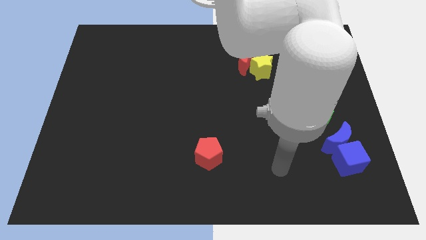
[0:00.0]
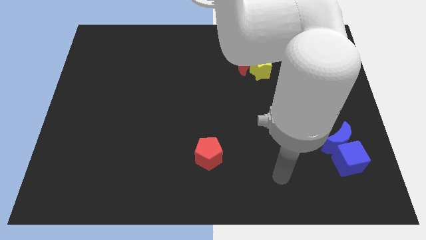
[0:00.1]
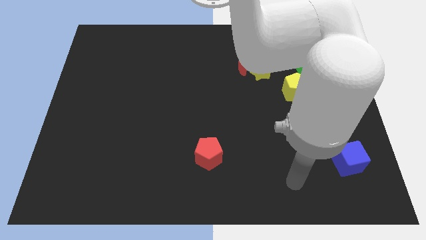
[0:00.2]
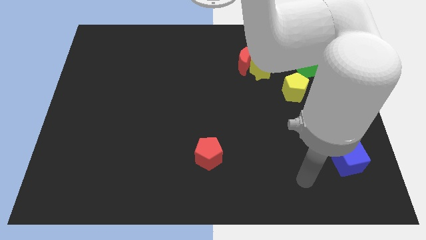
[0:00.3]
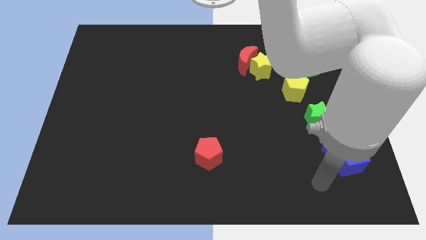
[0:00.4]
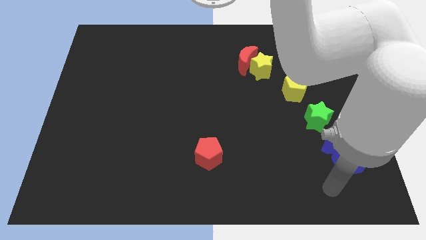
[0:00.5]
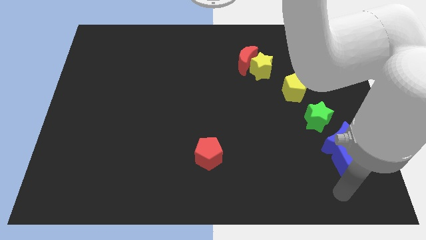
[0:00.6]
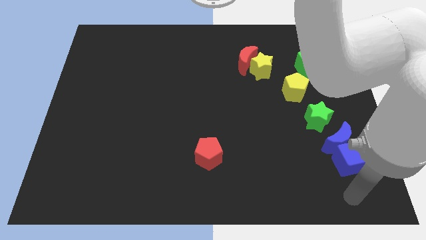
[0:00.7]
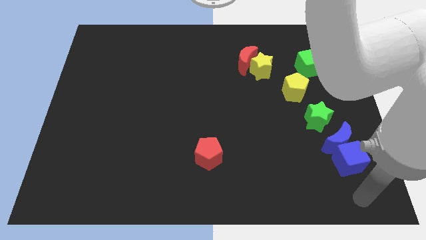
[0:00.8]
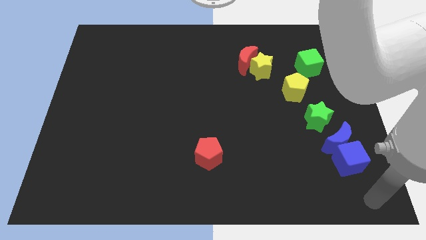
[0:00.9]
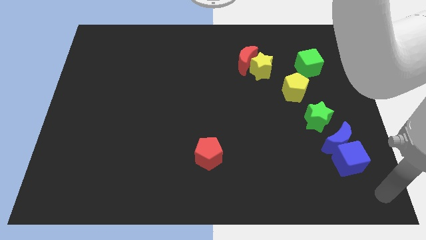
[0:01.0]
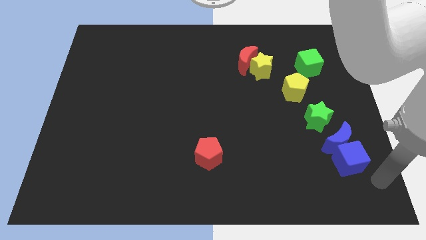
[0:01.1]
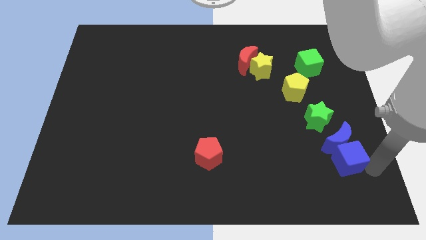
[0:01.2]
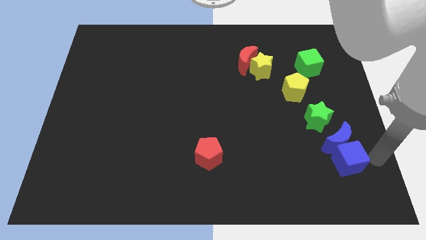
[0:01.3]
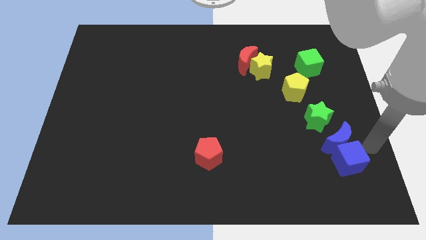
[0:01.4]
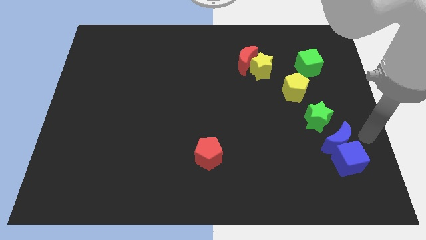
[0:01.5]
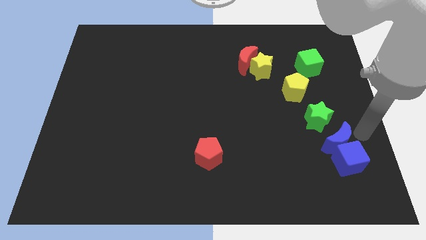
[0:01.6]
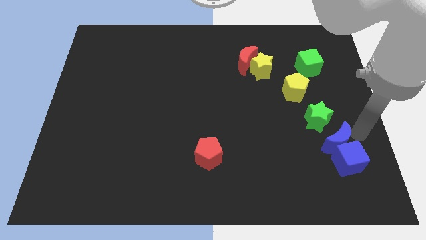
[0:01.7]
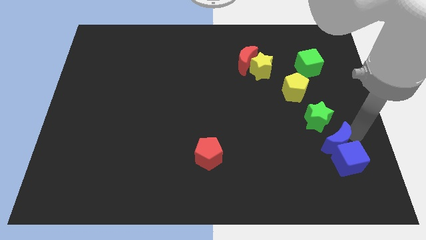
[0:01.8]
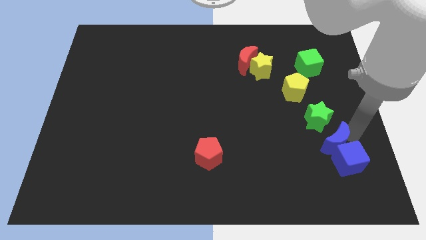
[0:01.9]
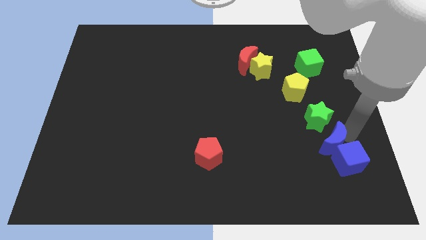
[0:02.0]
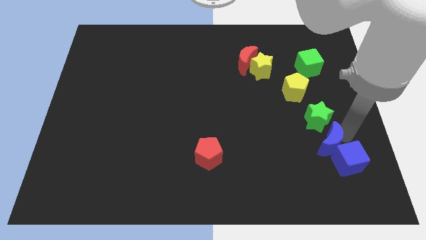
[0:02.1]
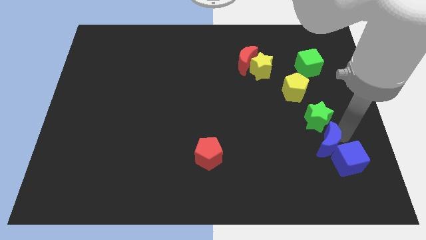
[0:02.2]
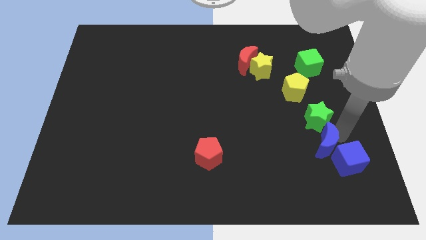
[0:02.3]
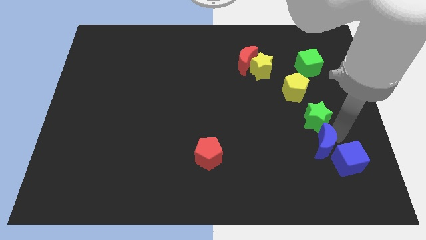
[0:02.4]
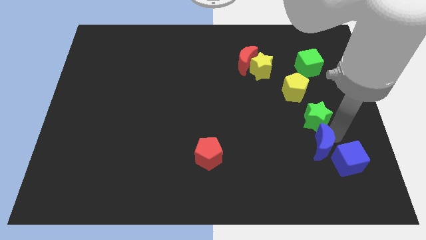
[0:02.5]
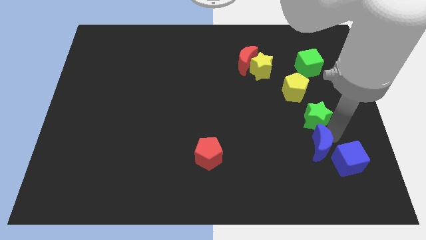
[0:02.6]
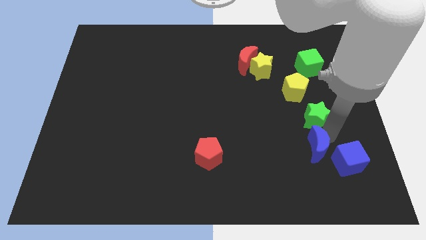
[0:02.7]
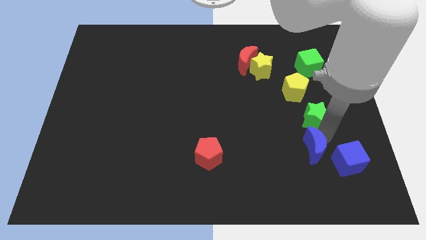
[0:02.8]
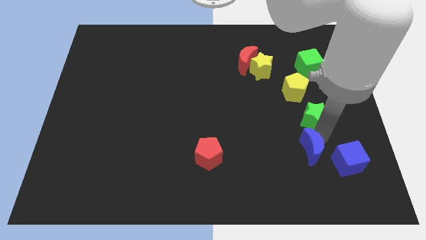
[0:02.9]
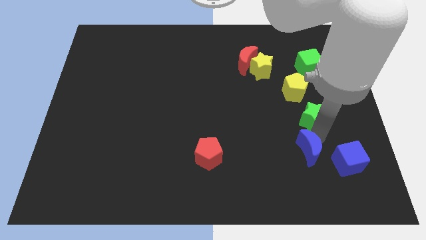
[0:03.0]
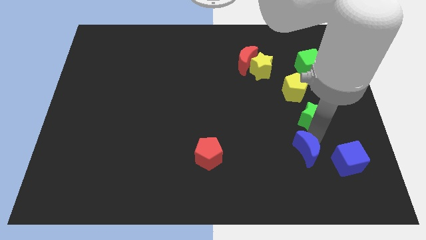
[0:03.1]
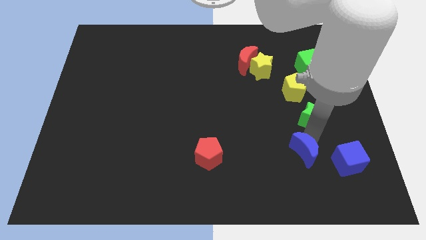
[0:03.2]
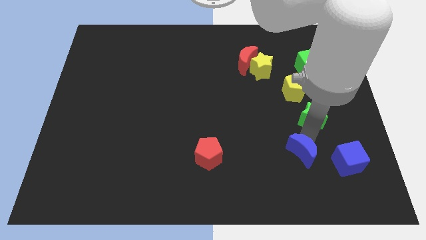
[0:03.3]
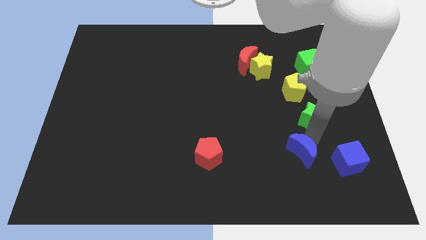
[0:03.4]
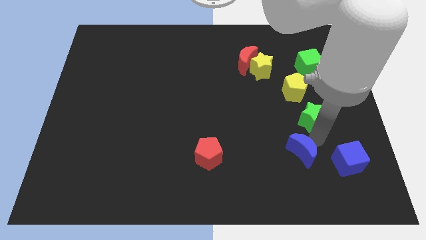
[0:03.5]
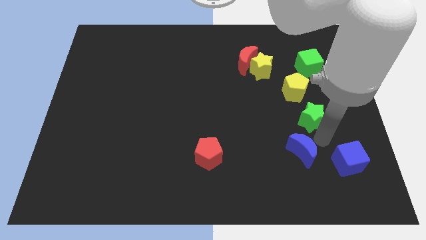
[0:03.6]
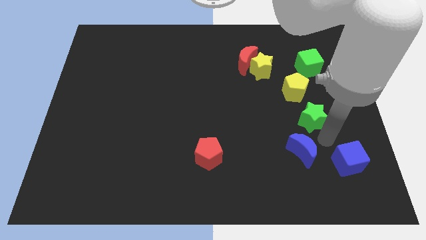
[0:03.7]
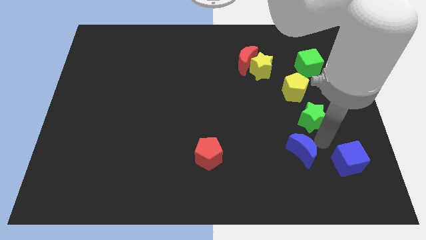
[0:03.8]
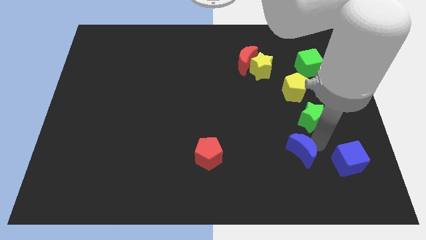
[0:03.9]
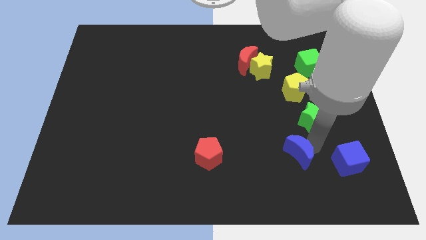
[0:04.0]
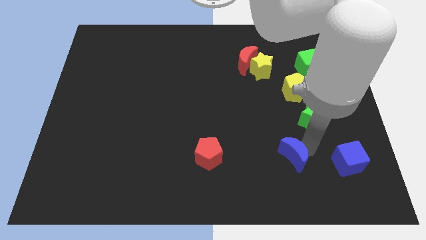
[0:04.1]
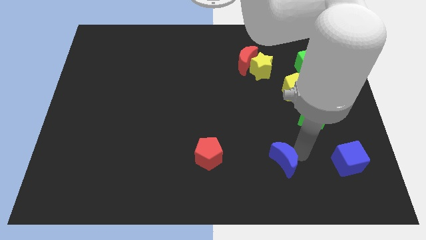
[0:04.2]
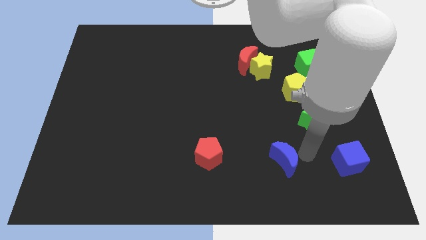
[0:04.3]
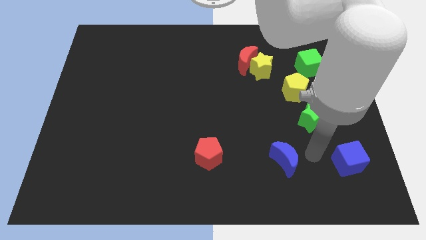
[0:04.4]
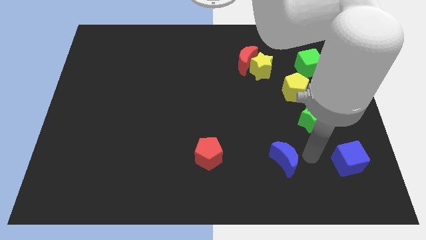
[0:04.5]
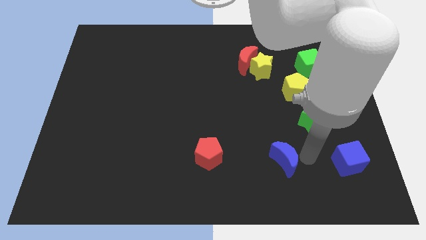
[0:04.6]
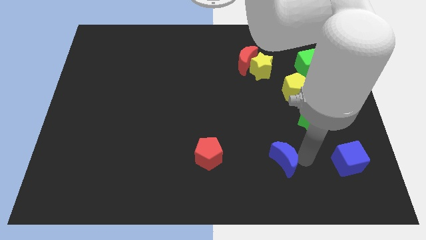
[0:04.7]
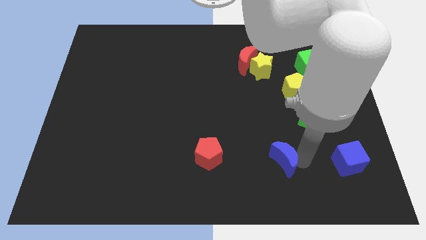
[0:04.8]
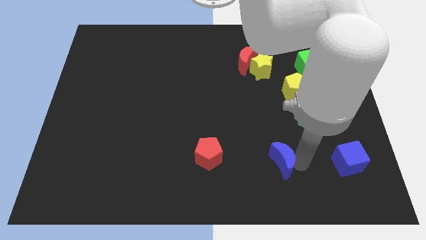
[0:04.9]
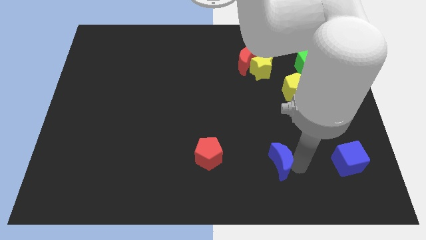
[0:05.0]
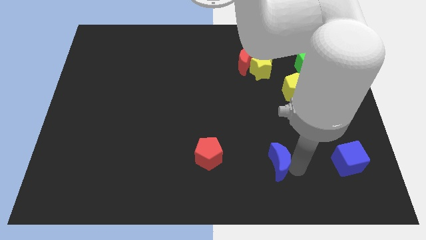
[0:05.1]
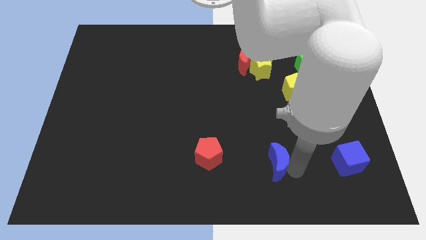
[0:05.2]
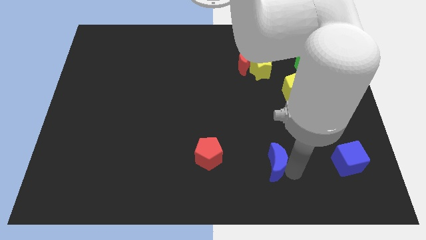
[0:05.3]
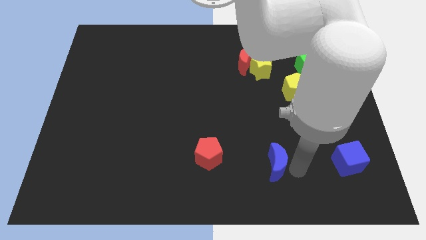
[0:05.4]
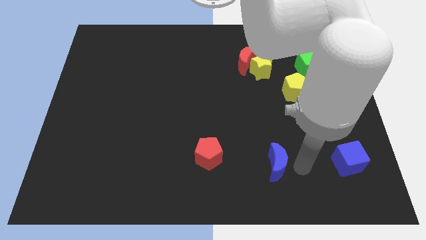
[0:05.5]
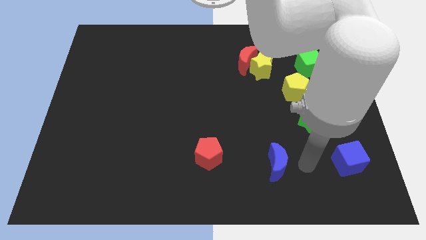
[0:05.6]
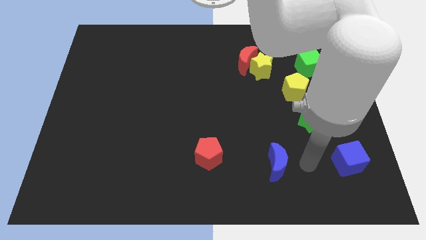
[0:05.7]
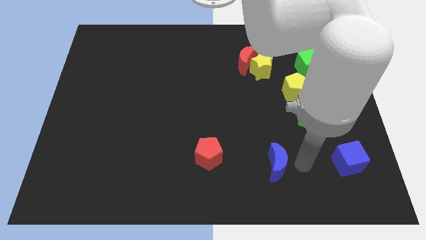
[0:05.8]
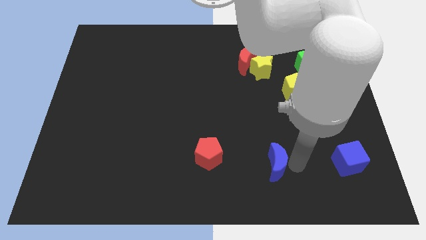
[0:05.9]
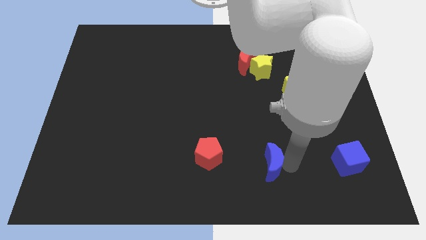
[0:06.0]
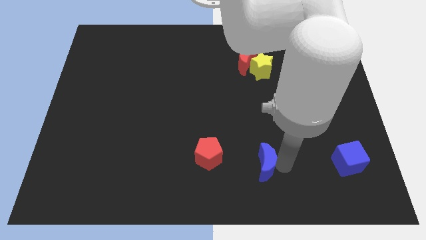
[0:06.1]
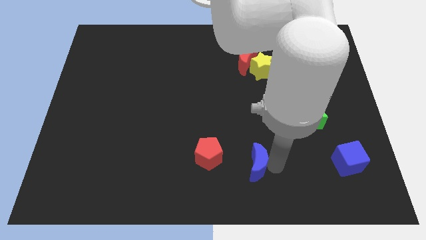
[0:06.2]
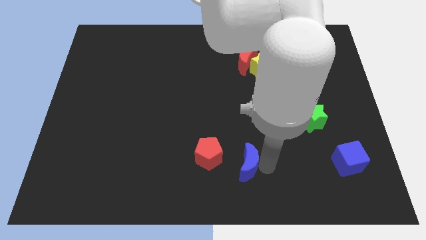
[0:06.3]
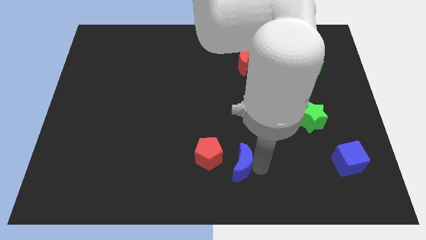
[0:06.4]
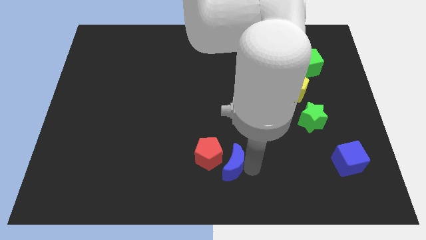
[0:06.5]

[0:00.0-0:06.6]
move the blue moon towards the red pentagon

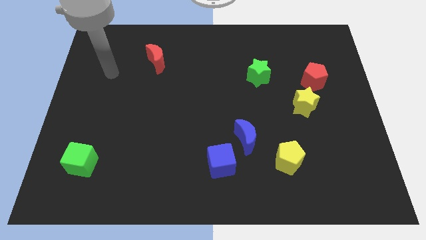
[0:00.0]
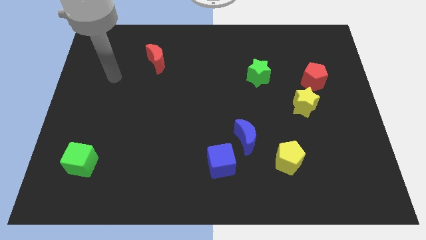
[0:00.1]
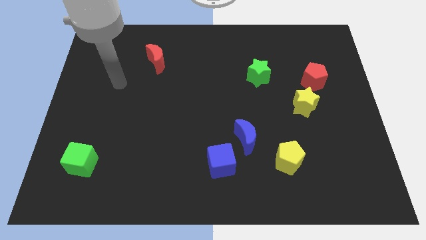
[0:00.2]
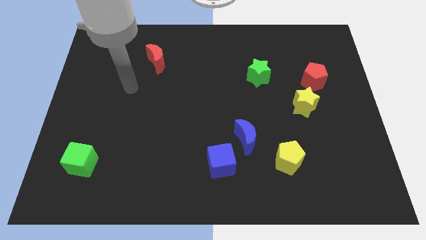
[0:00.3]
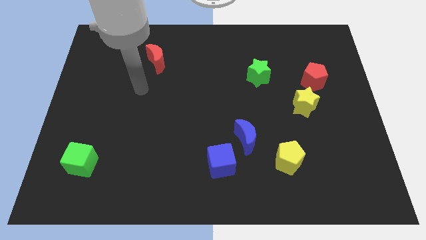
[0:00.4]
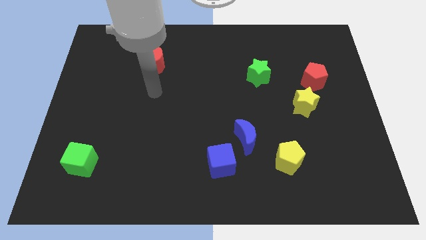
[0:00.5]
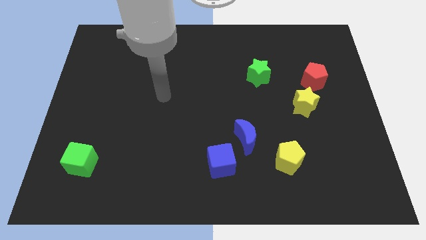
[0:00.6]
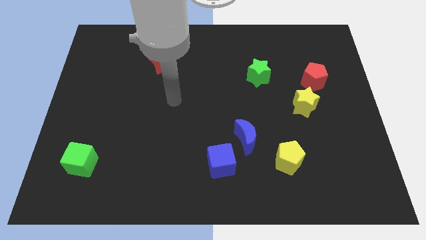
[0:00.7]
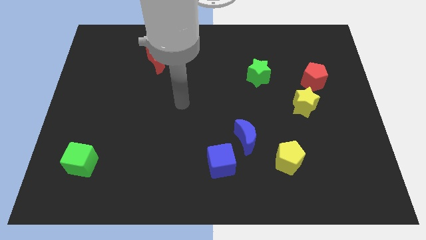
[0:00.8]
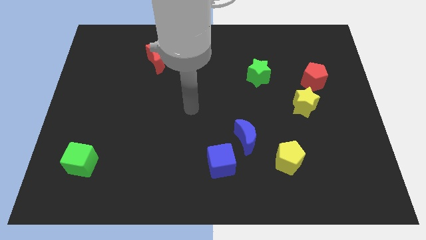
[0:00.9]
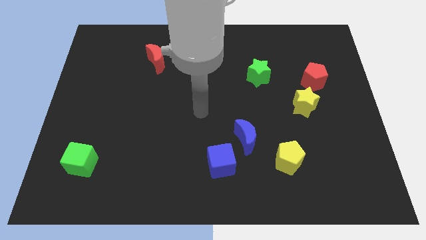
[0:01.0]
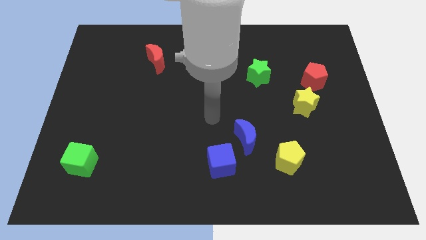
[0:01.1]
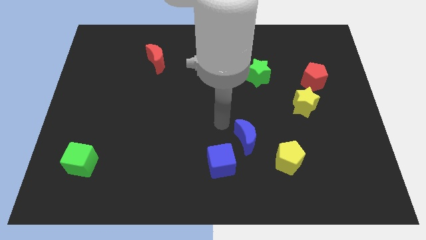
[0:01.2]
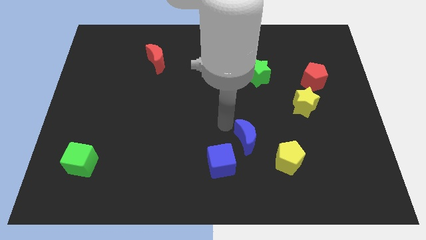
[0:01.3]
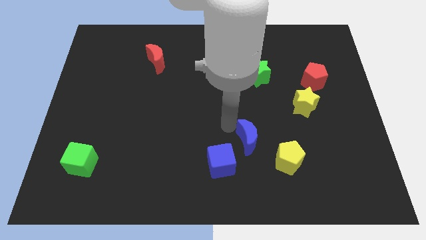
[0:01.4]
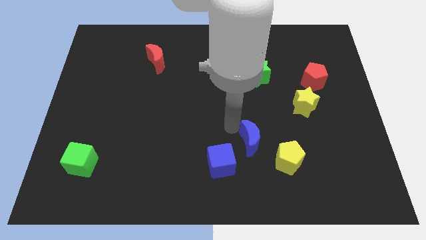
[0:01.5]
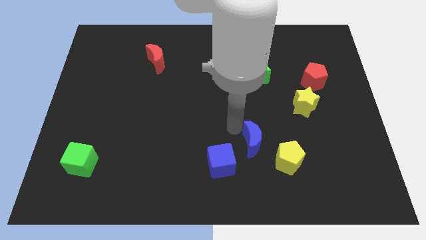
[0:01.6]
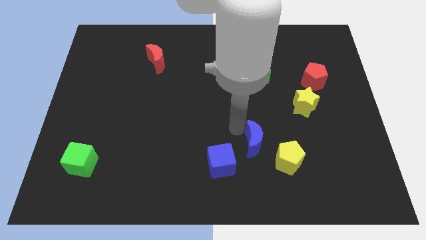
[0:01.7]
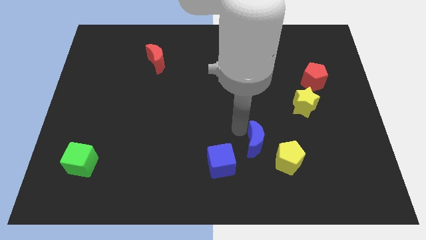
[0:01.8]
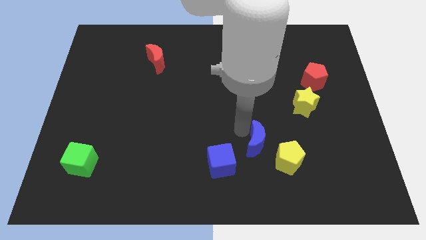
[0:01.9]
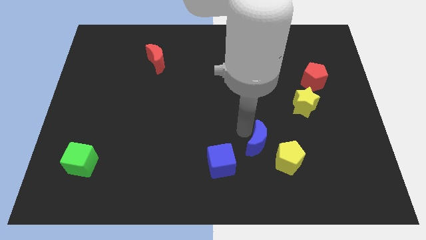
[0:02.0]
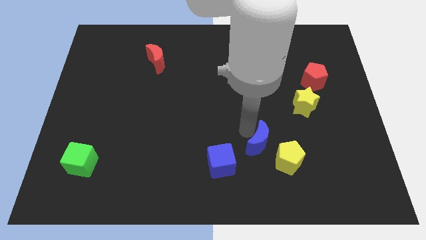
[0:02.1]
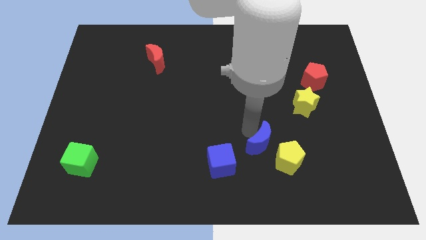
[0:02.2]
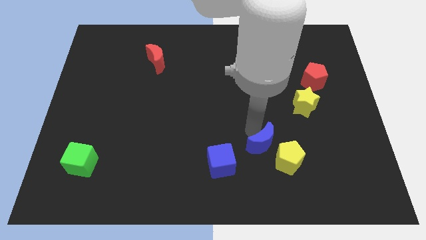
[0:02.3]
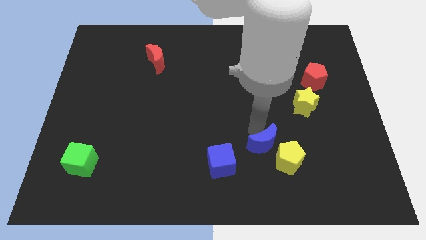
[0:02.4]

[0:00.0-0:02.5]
put the blue moon close to the yellow pentagon
